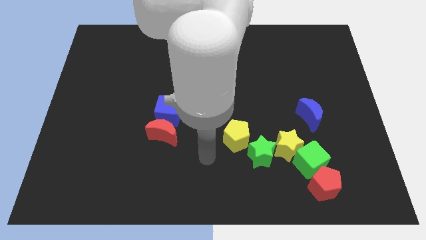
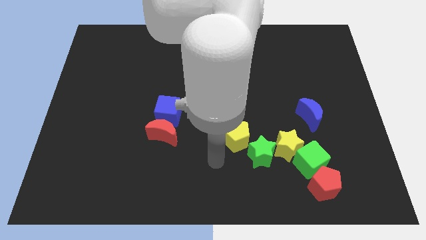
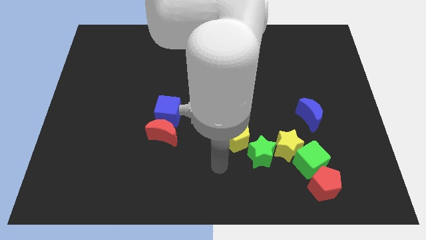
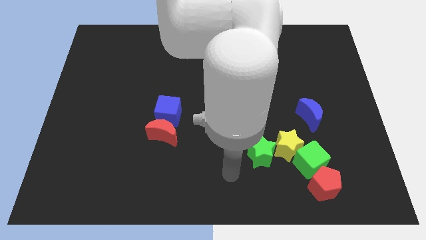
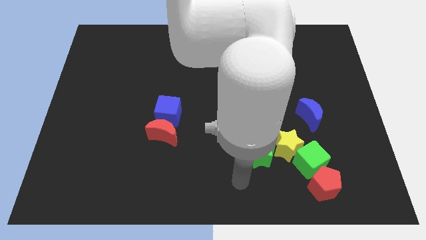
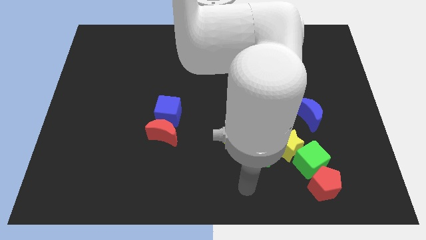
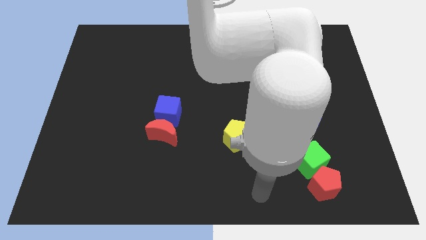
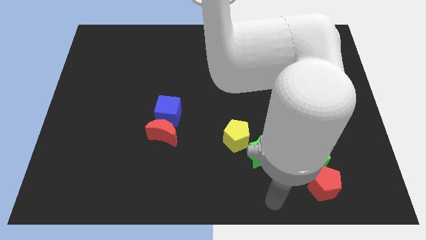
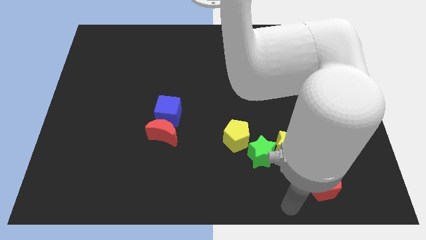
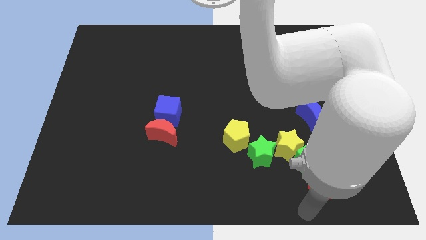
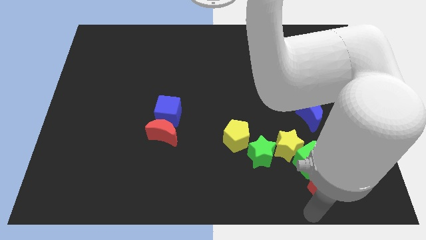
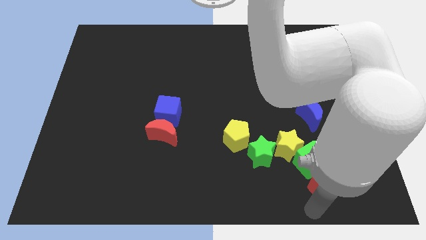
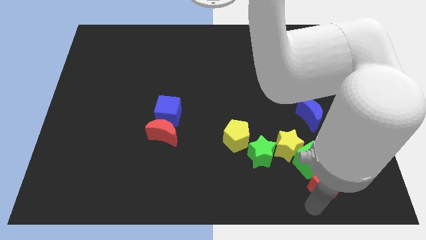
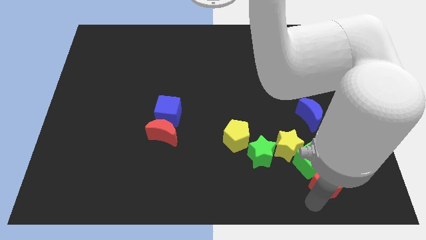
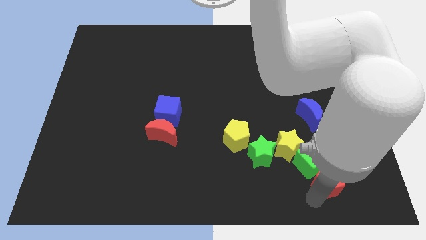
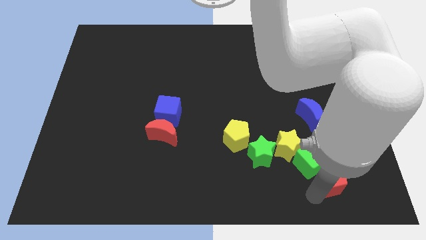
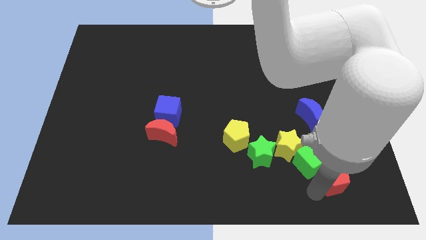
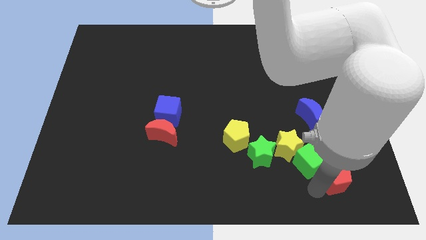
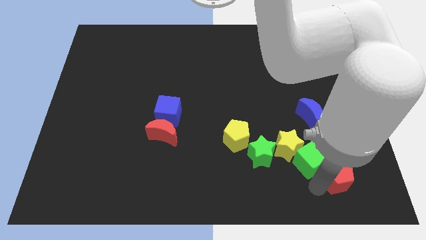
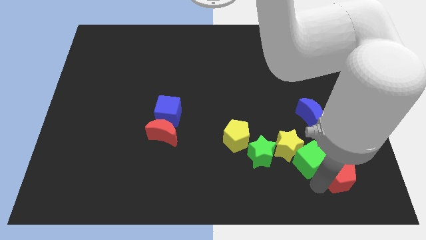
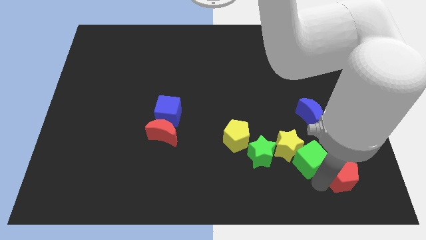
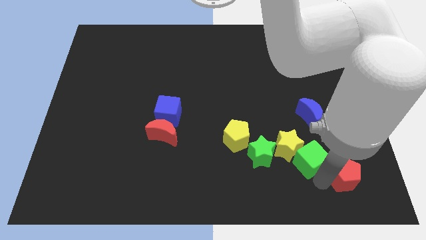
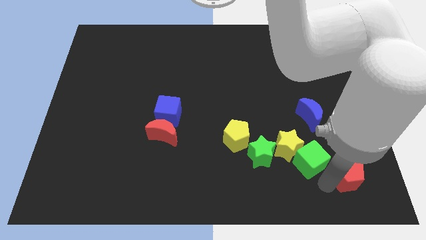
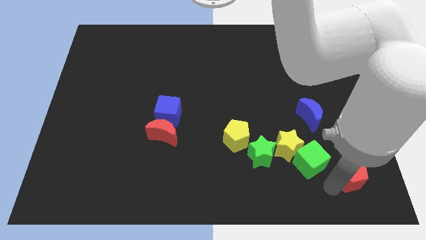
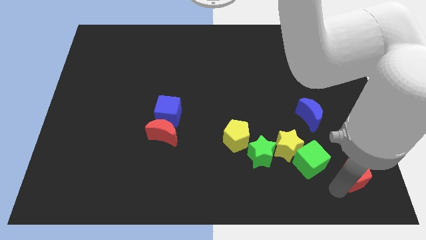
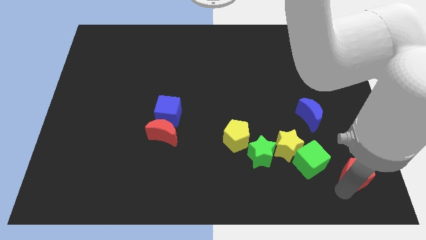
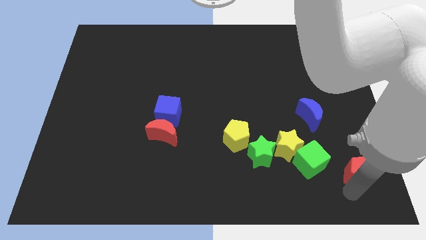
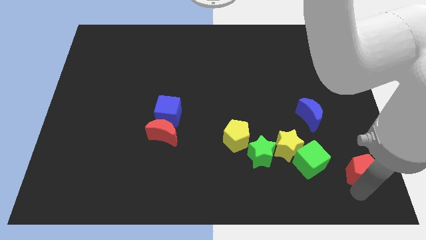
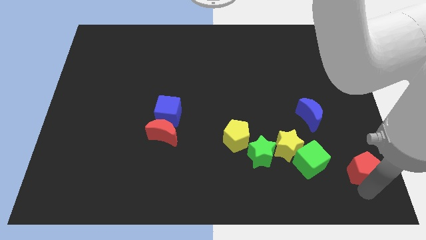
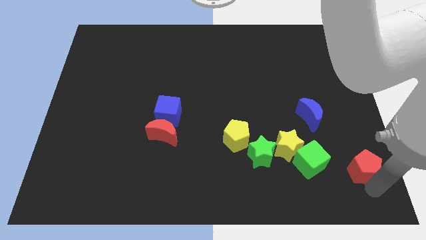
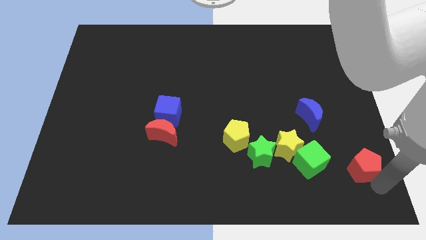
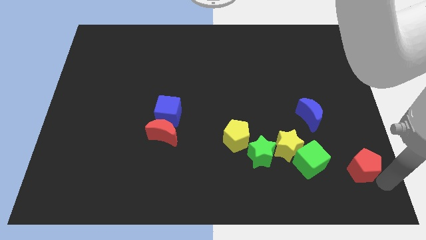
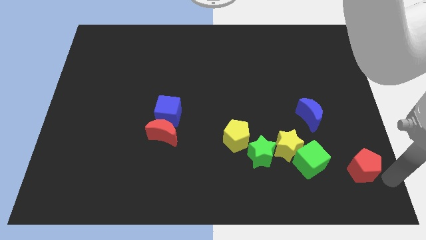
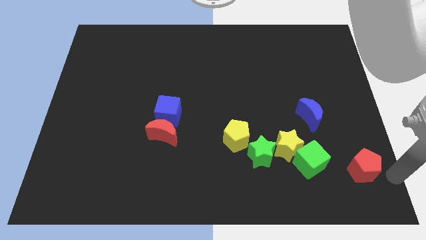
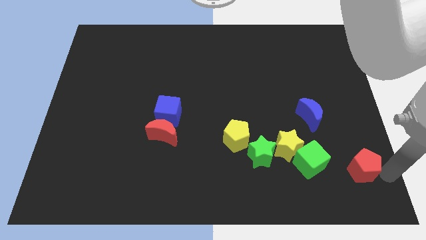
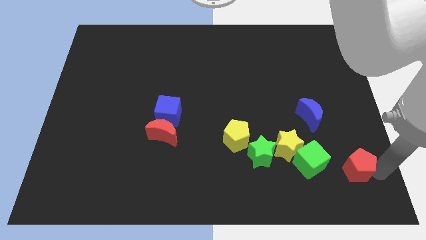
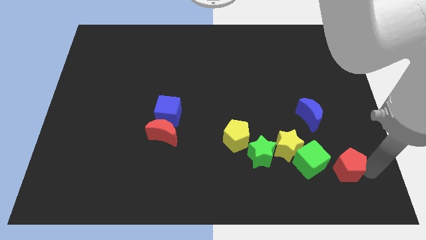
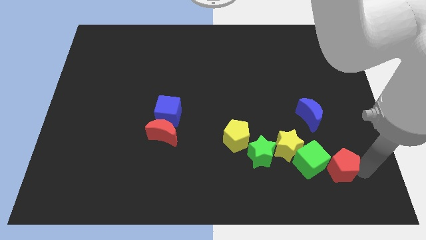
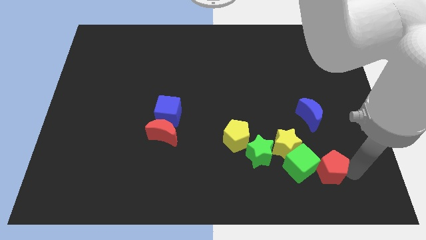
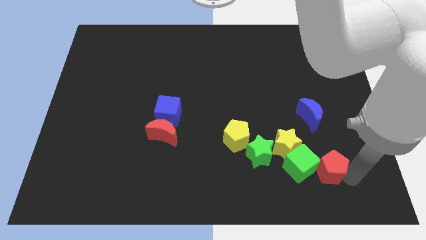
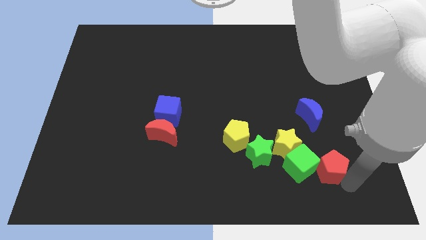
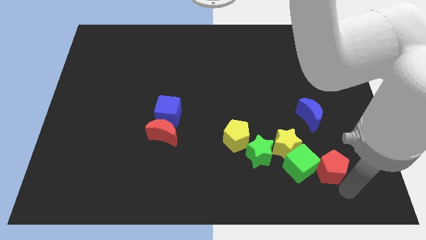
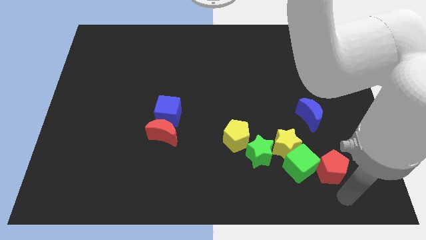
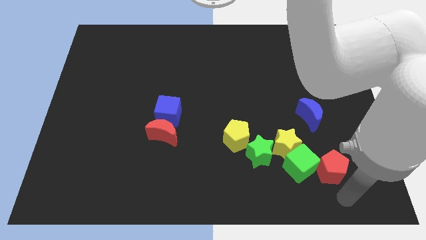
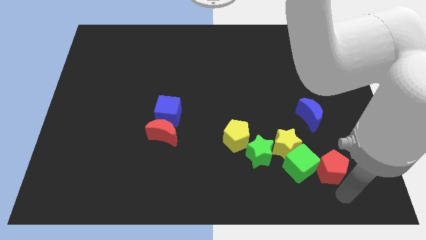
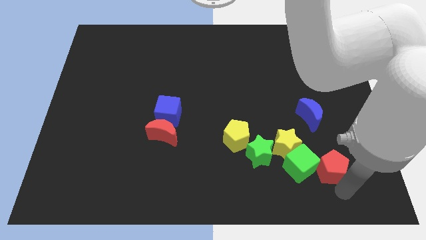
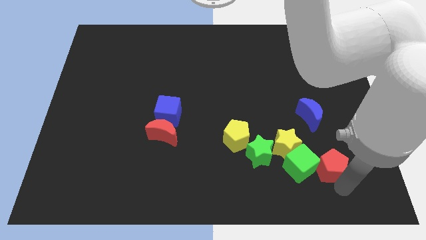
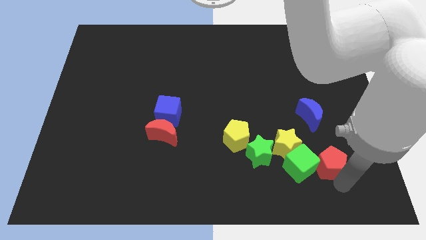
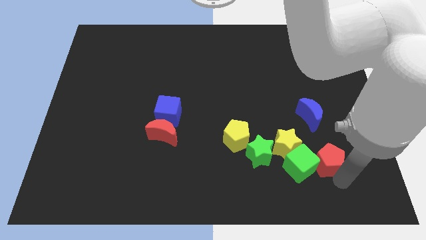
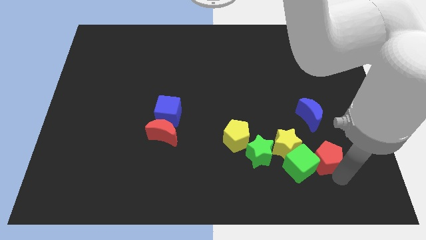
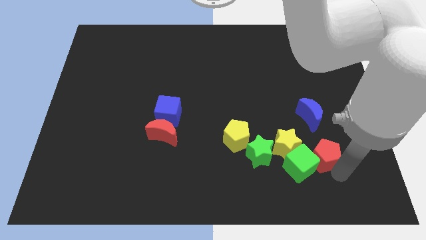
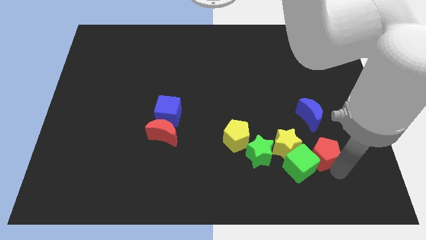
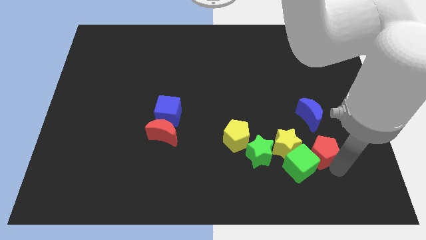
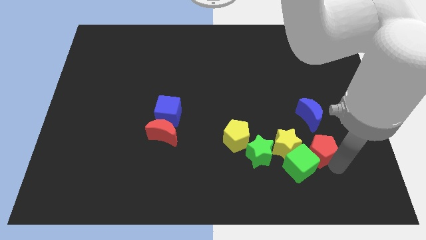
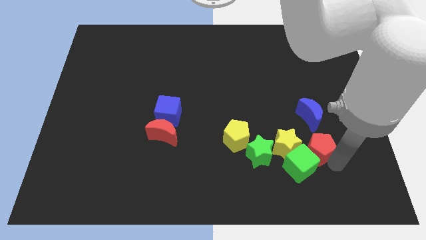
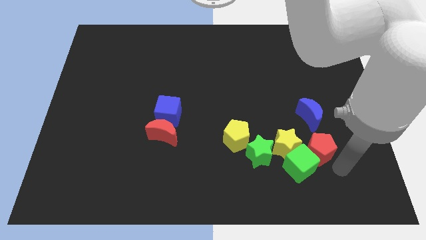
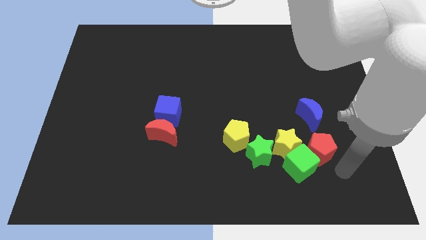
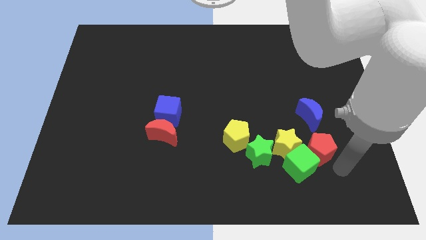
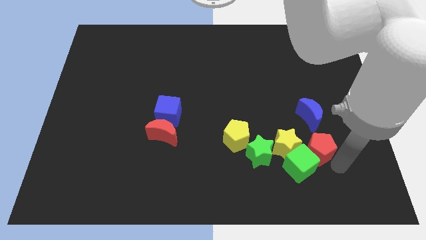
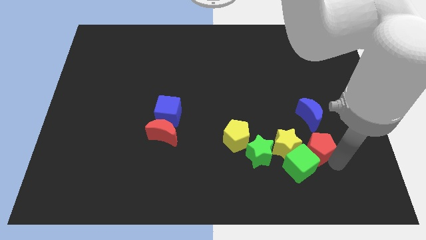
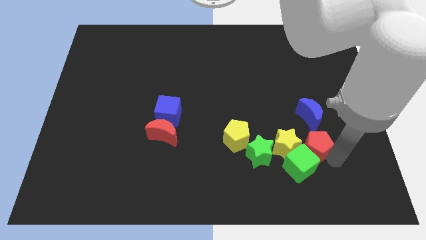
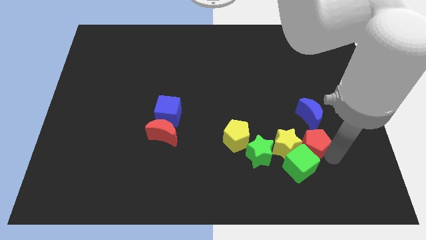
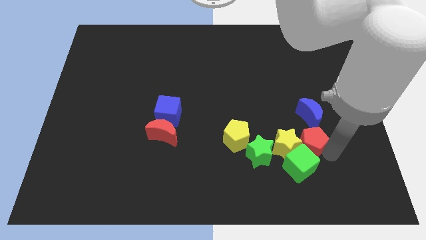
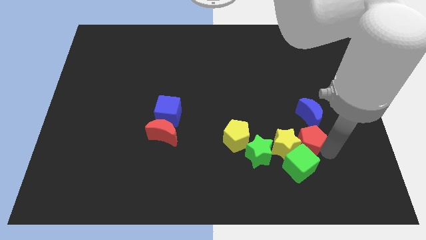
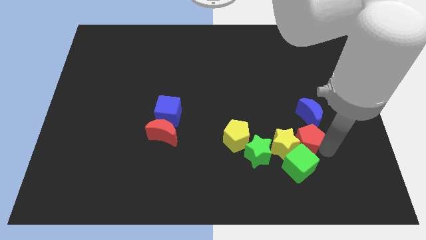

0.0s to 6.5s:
slide the red pentagon diagonally upwards and to the left slightly

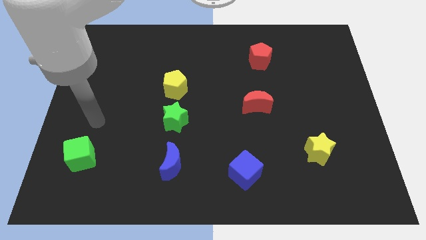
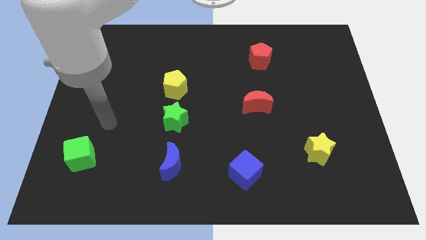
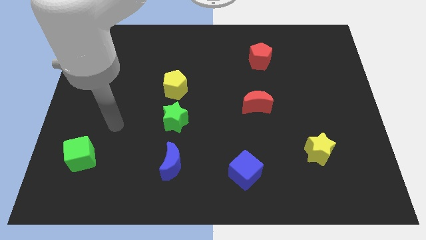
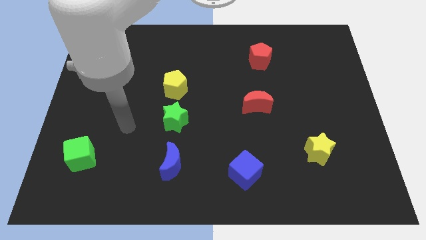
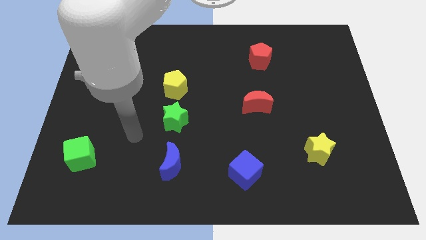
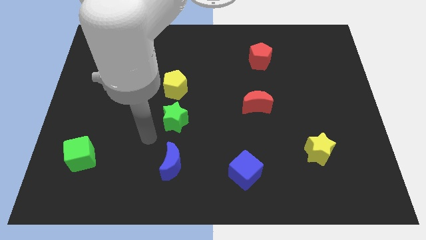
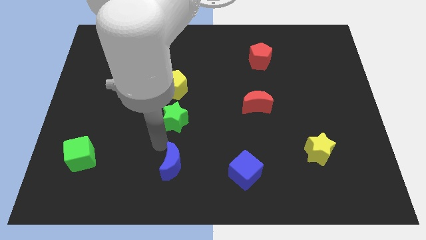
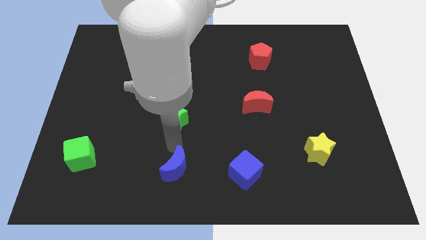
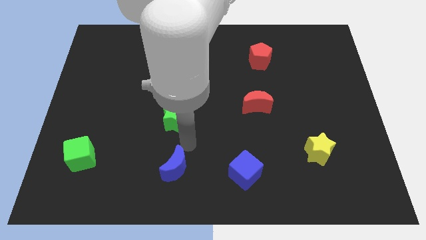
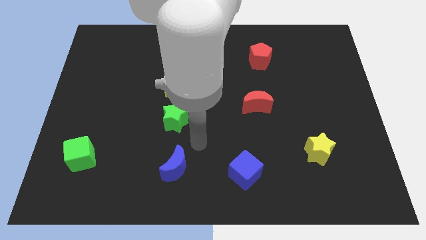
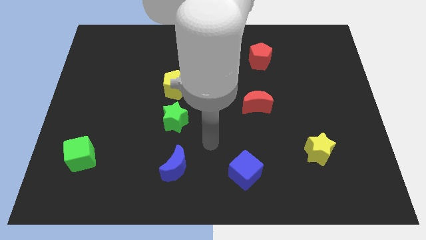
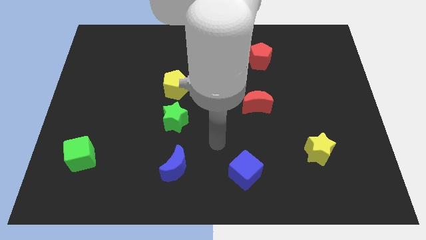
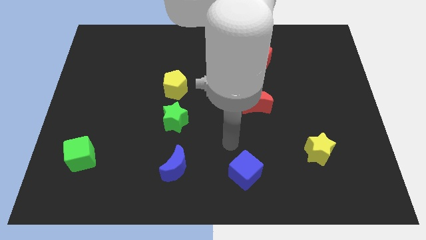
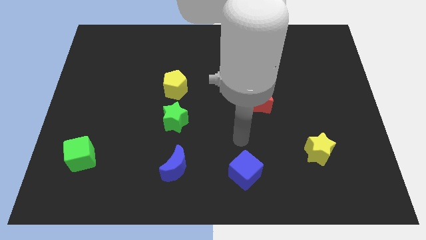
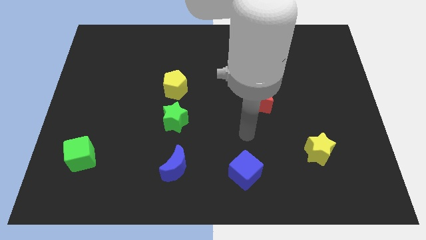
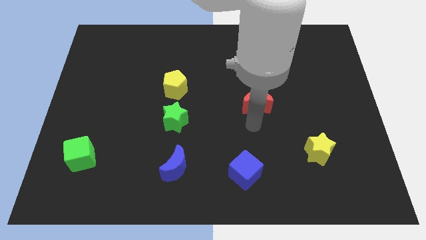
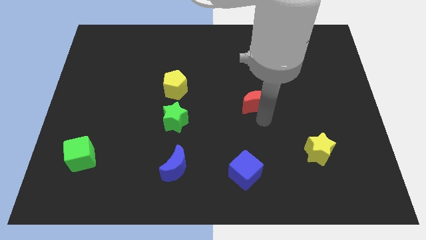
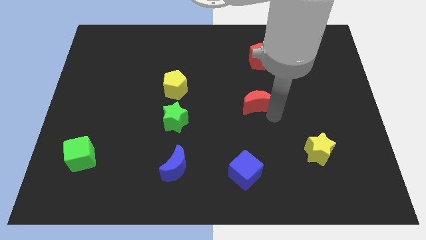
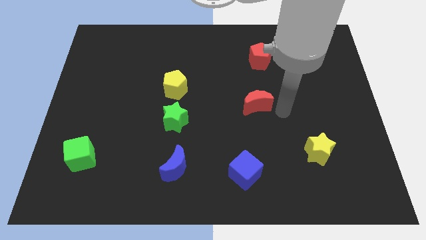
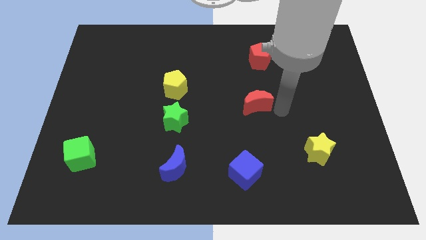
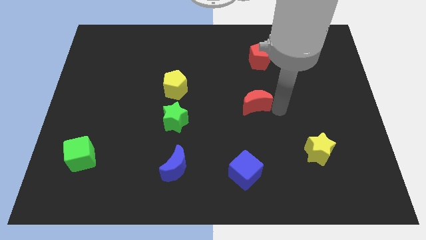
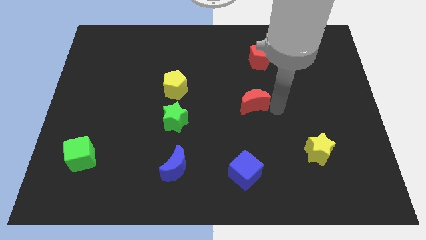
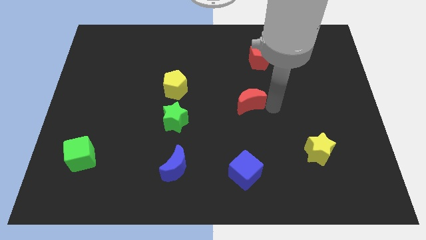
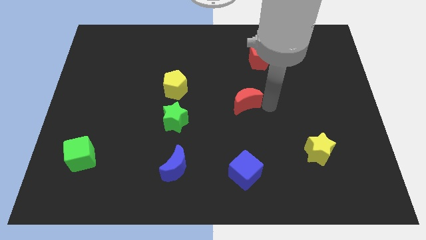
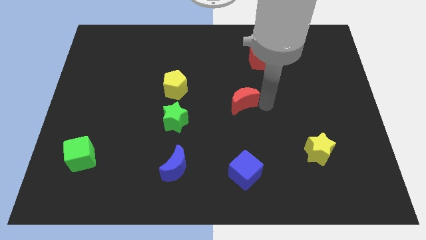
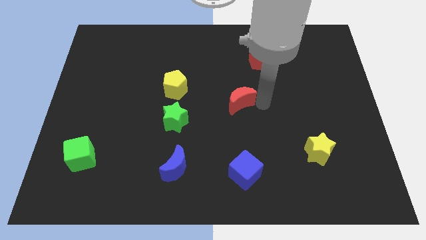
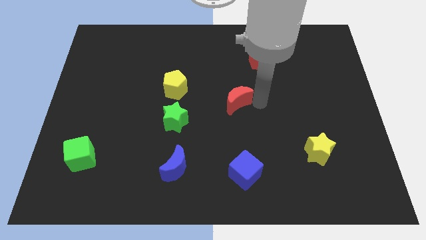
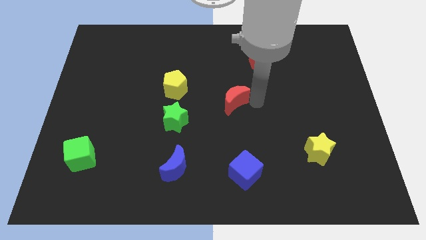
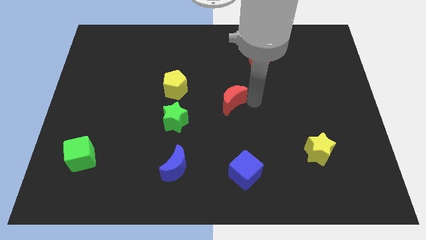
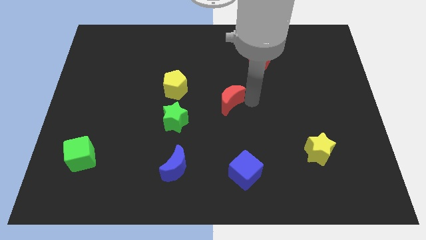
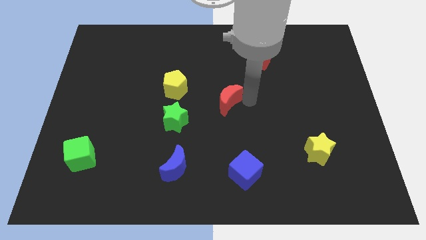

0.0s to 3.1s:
slide the red moon a little to the left
